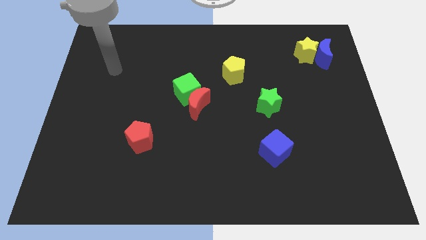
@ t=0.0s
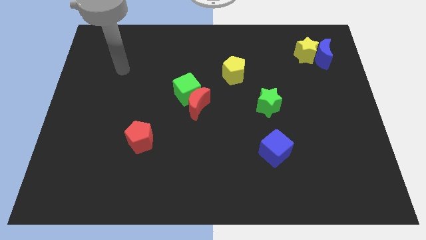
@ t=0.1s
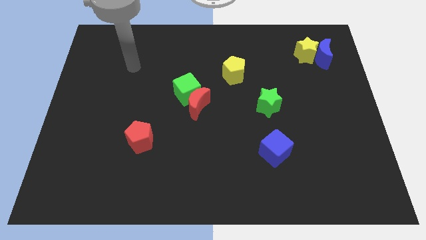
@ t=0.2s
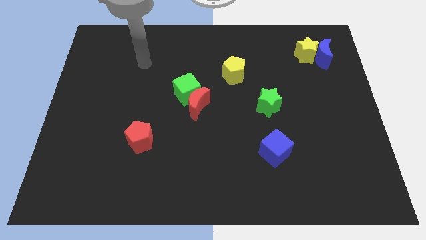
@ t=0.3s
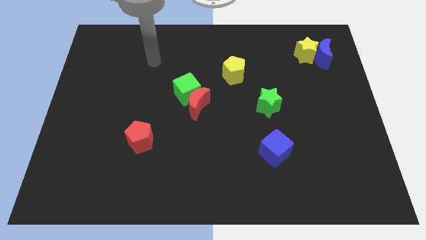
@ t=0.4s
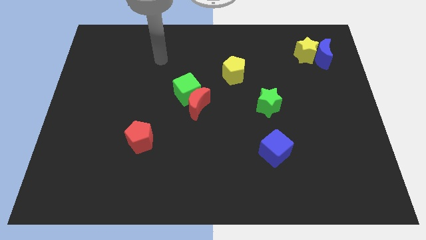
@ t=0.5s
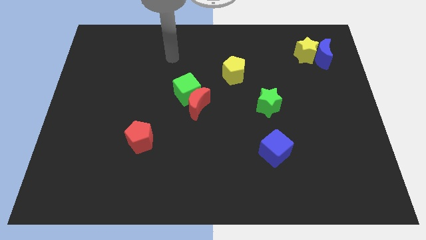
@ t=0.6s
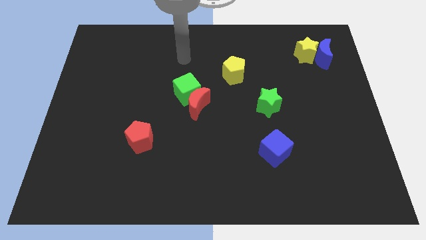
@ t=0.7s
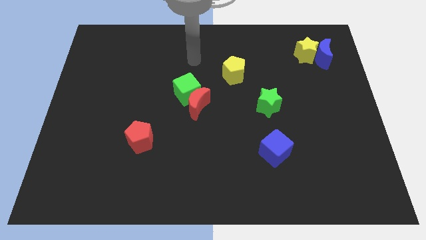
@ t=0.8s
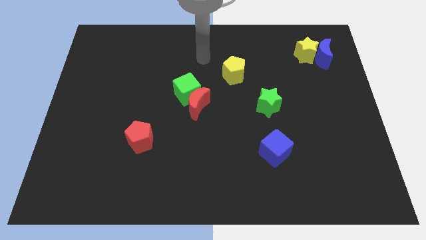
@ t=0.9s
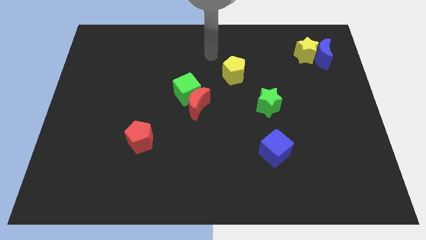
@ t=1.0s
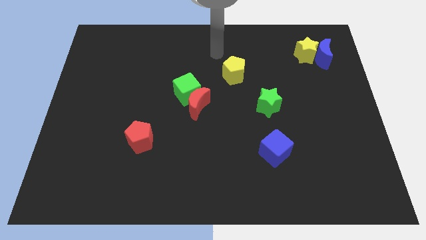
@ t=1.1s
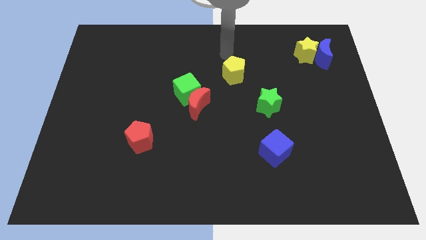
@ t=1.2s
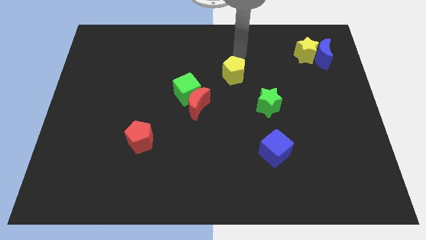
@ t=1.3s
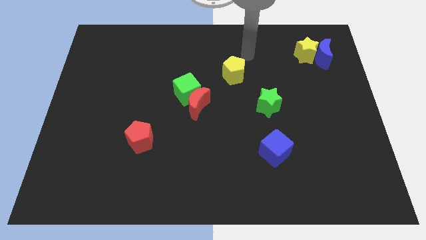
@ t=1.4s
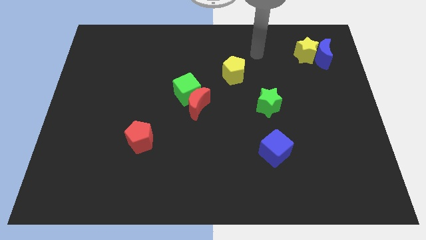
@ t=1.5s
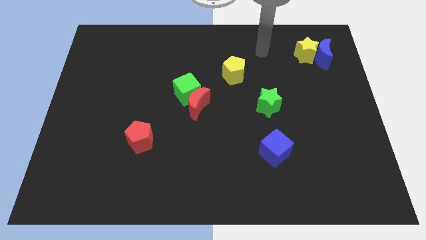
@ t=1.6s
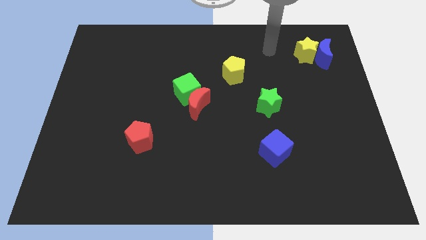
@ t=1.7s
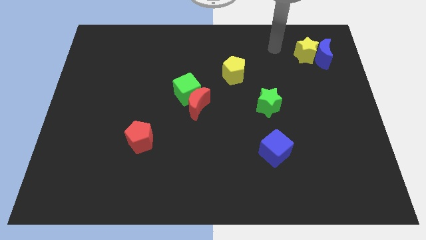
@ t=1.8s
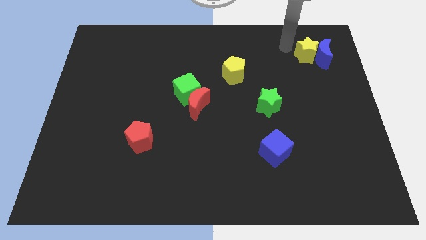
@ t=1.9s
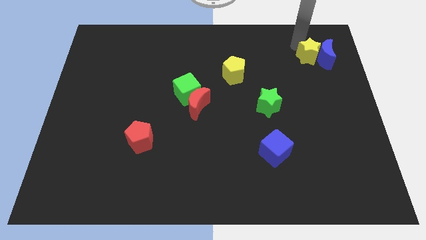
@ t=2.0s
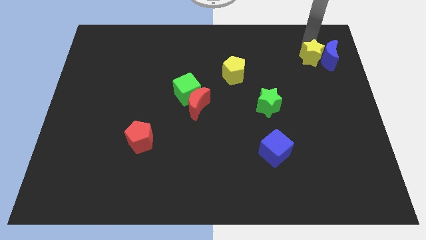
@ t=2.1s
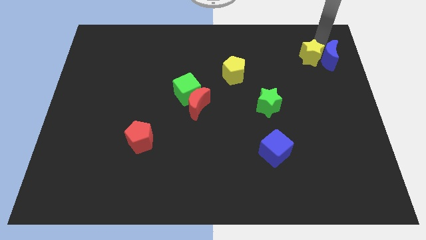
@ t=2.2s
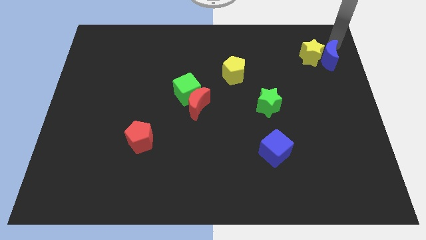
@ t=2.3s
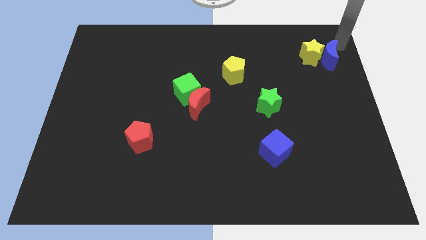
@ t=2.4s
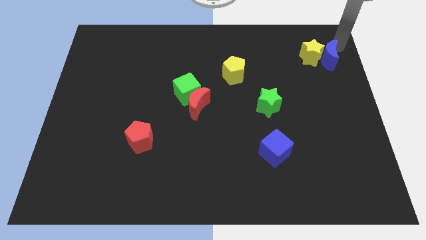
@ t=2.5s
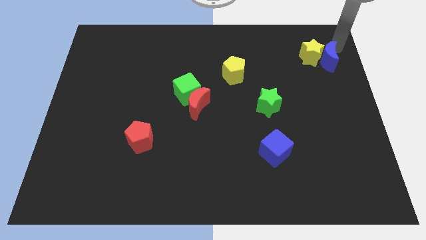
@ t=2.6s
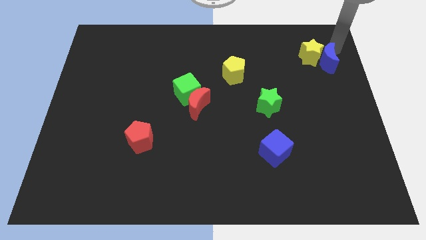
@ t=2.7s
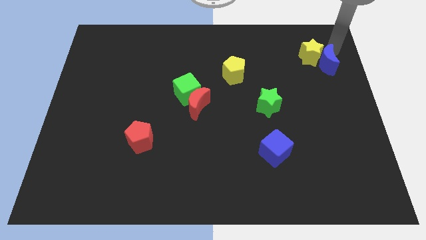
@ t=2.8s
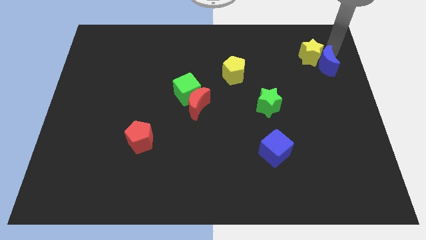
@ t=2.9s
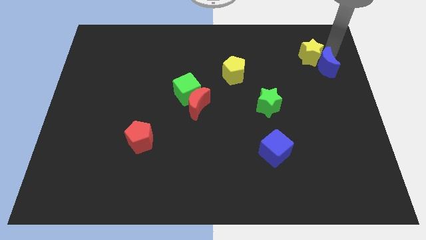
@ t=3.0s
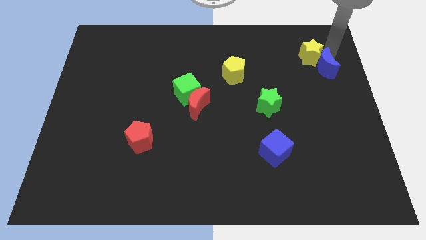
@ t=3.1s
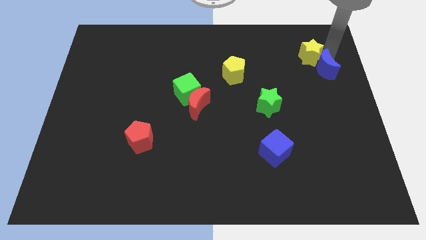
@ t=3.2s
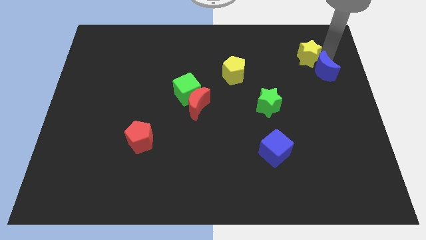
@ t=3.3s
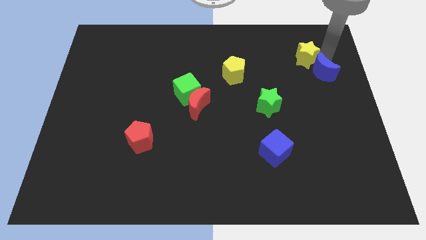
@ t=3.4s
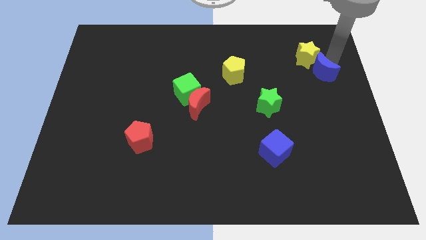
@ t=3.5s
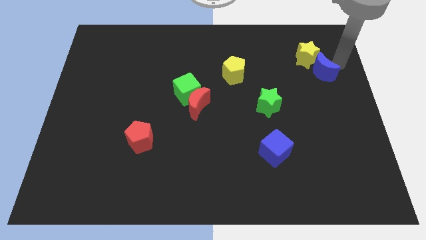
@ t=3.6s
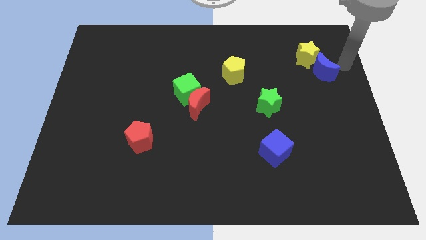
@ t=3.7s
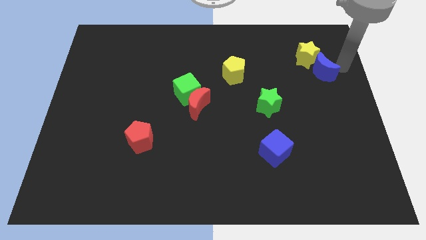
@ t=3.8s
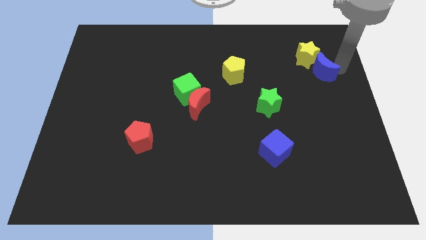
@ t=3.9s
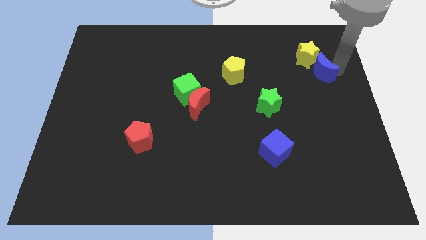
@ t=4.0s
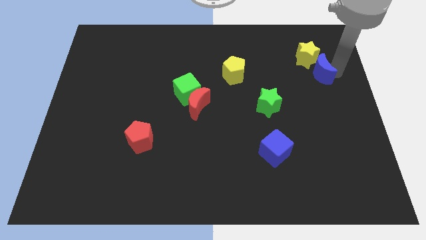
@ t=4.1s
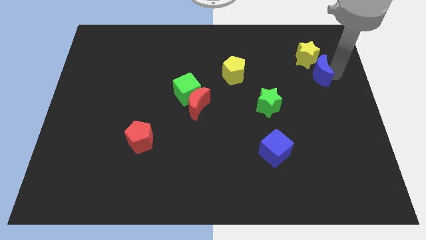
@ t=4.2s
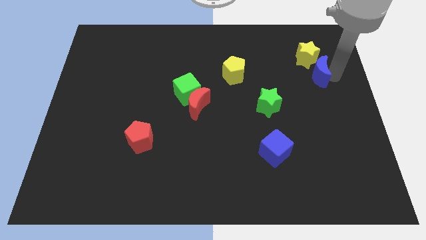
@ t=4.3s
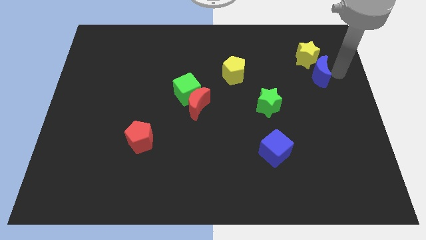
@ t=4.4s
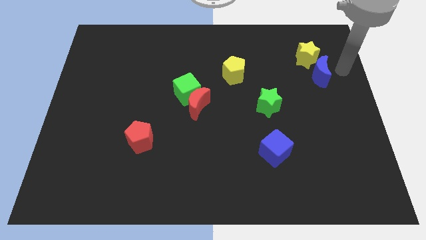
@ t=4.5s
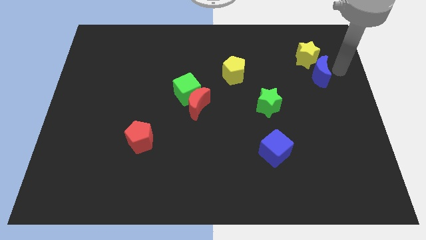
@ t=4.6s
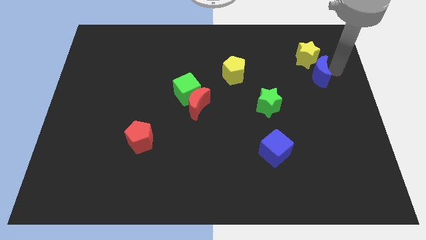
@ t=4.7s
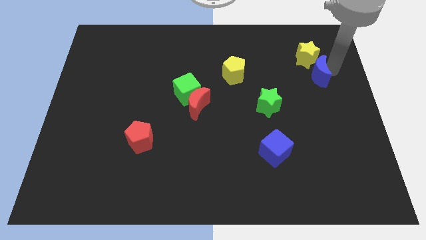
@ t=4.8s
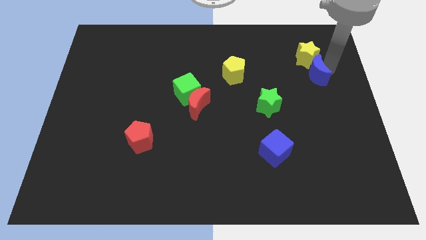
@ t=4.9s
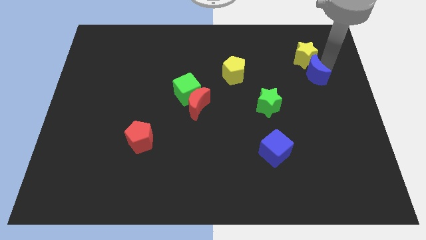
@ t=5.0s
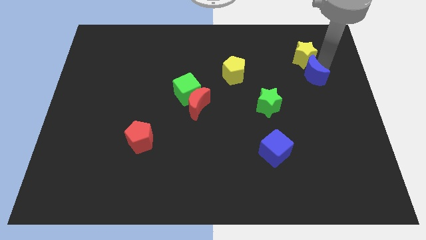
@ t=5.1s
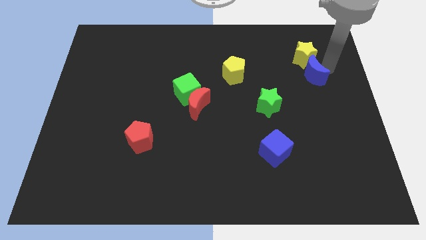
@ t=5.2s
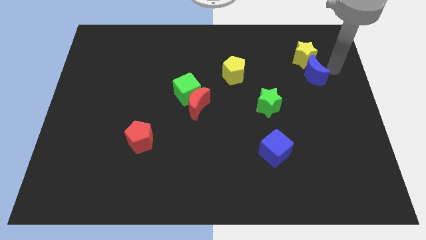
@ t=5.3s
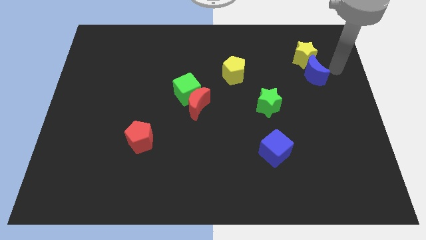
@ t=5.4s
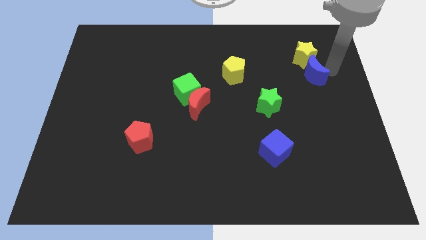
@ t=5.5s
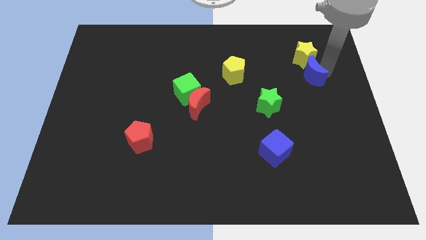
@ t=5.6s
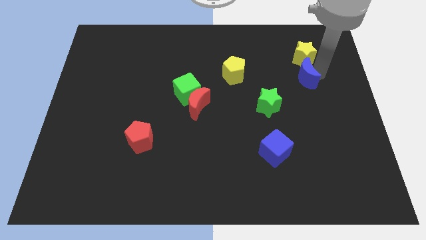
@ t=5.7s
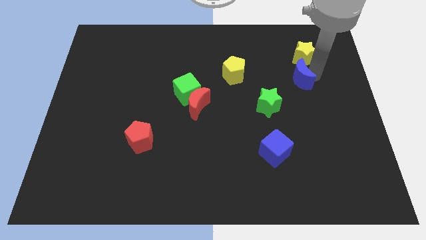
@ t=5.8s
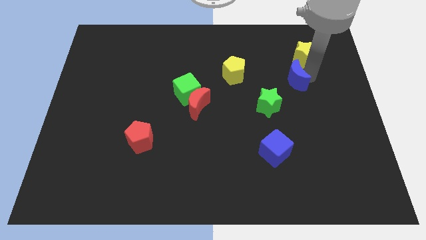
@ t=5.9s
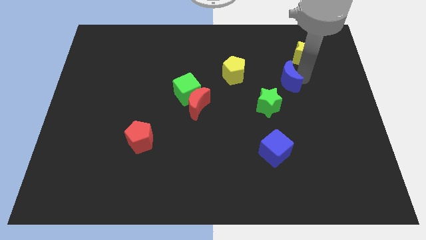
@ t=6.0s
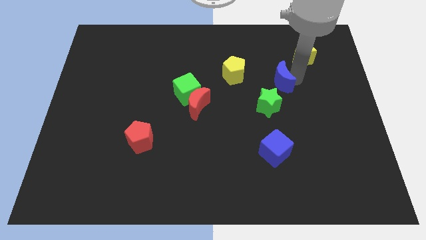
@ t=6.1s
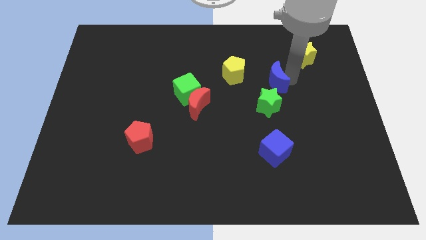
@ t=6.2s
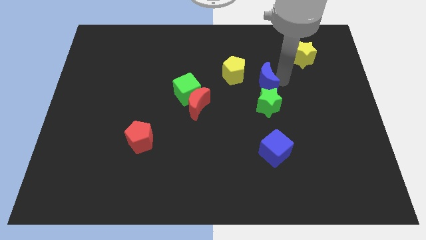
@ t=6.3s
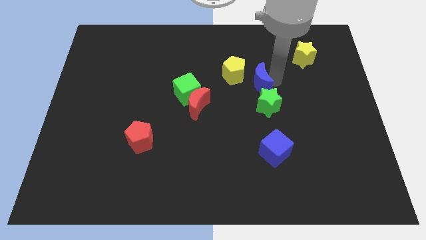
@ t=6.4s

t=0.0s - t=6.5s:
push the blue moon to the top left side of the green star

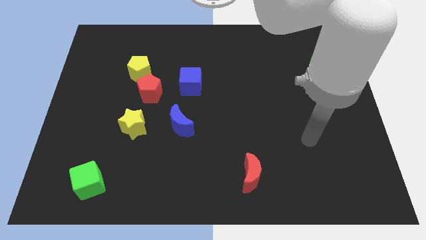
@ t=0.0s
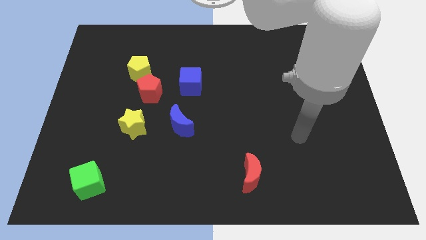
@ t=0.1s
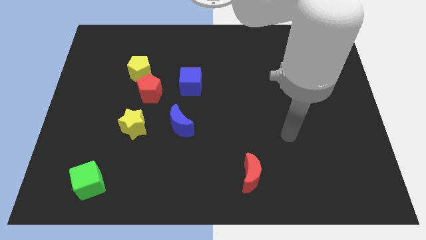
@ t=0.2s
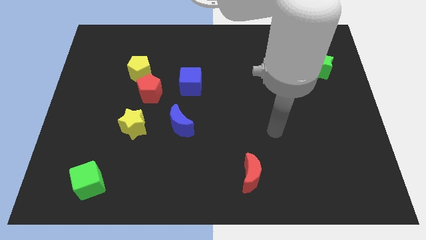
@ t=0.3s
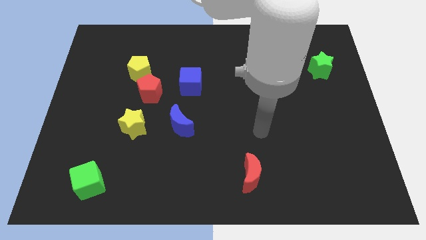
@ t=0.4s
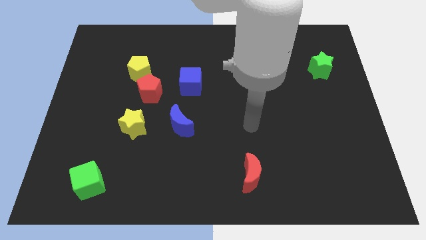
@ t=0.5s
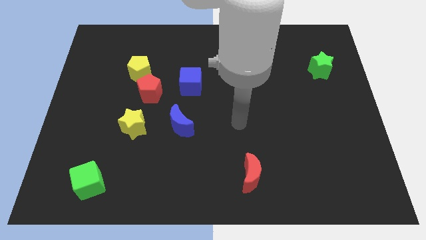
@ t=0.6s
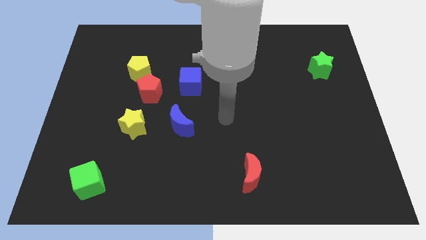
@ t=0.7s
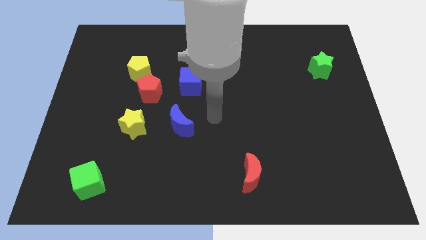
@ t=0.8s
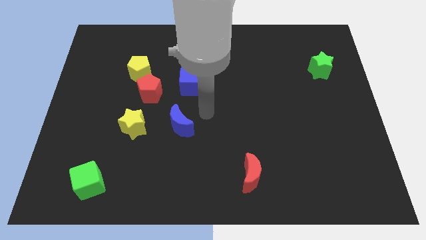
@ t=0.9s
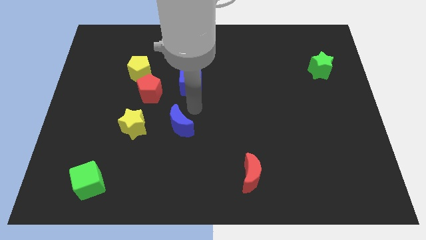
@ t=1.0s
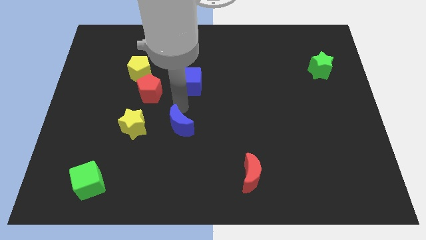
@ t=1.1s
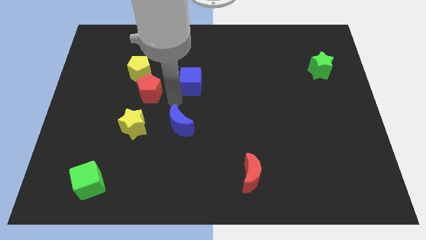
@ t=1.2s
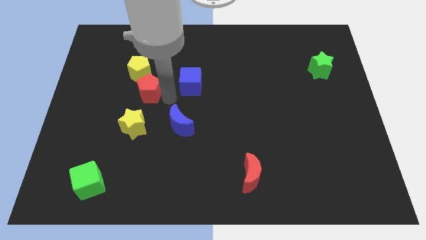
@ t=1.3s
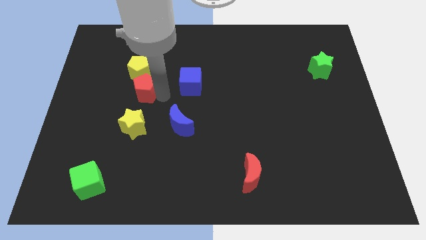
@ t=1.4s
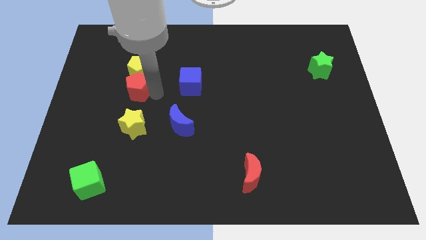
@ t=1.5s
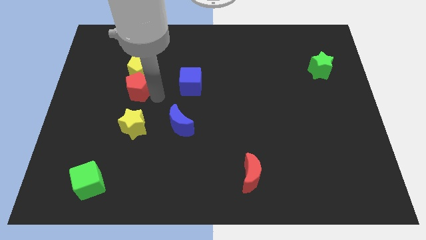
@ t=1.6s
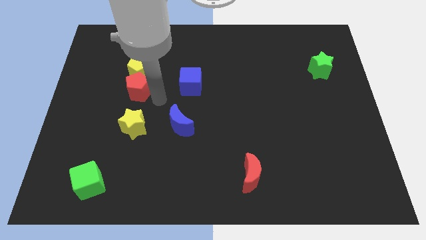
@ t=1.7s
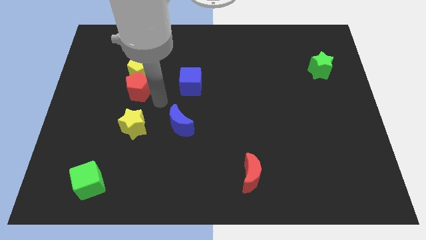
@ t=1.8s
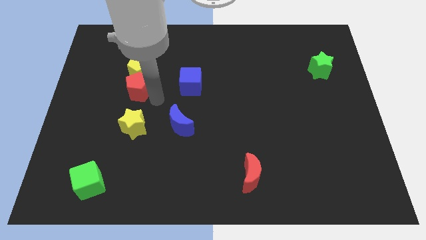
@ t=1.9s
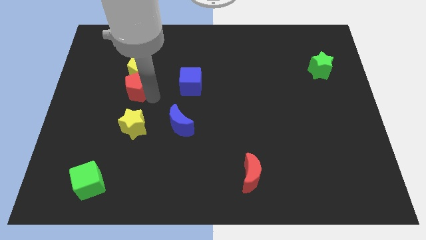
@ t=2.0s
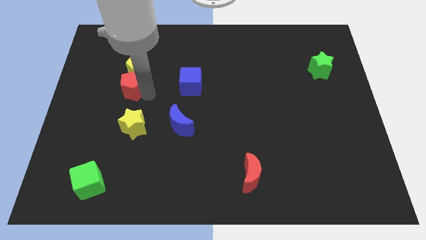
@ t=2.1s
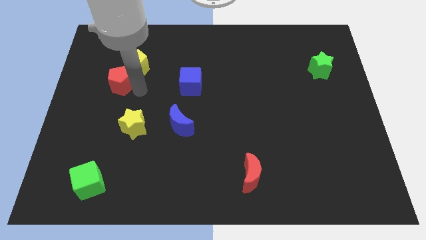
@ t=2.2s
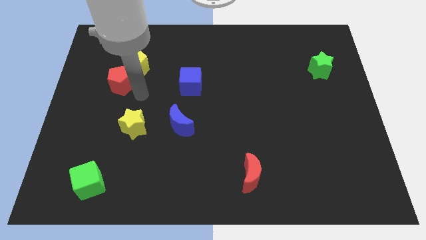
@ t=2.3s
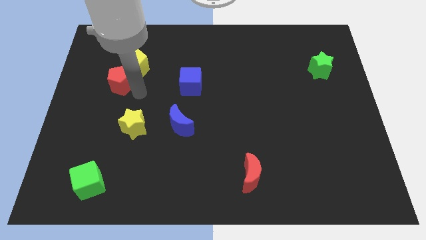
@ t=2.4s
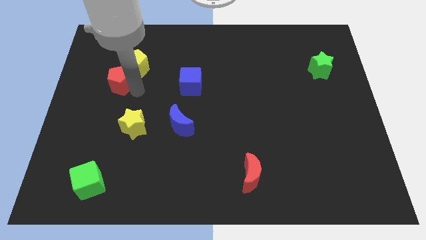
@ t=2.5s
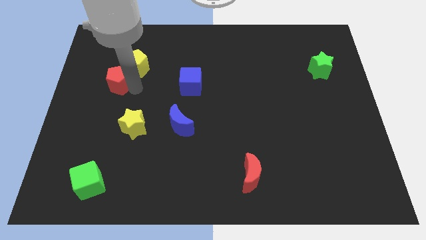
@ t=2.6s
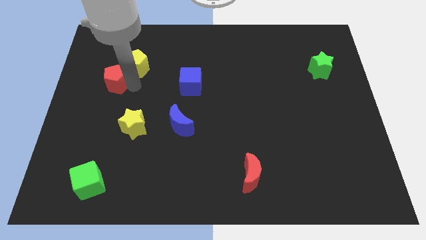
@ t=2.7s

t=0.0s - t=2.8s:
push the red pentagon to the left of the yellow pentagon
